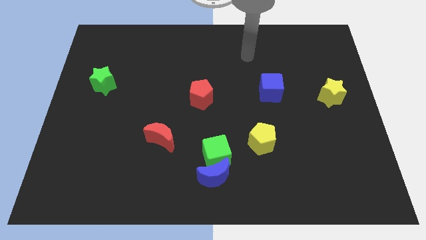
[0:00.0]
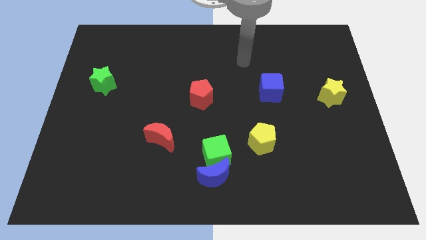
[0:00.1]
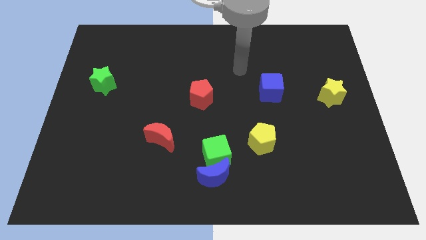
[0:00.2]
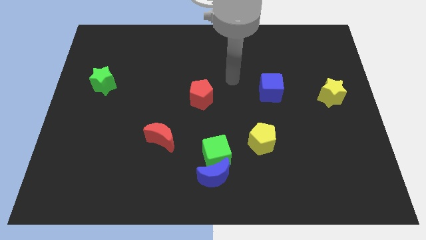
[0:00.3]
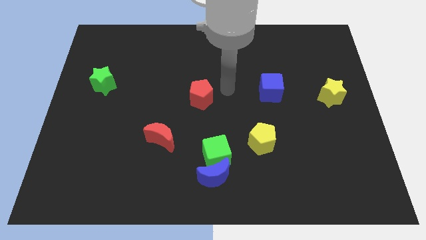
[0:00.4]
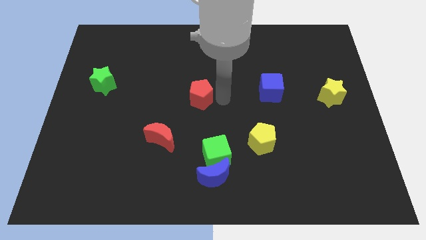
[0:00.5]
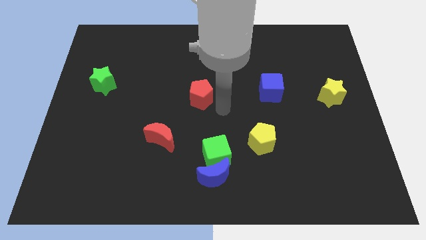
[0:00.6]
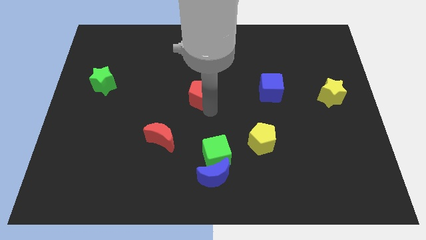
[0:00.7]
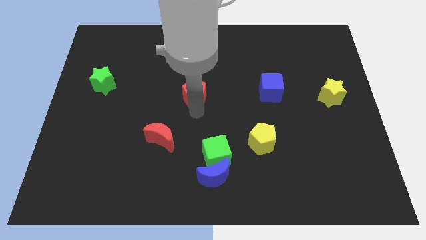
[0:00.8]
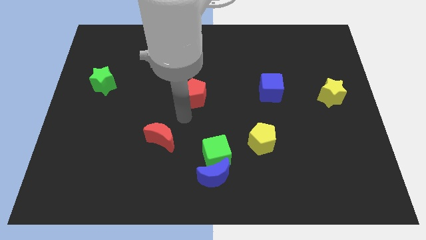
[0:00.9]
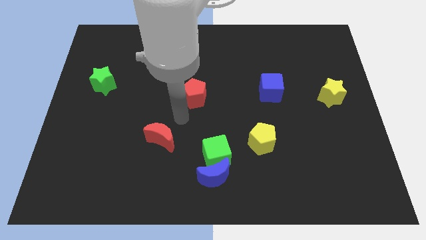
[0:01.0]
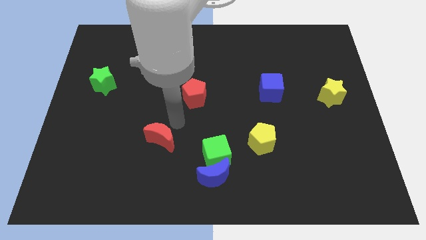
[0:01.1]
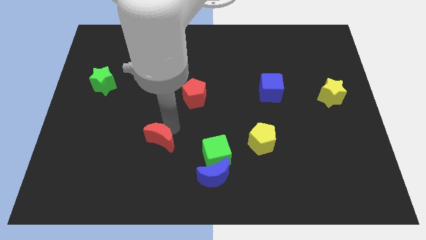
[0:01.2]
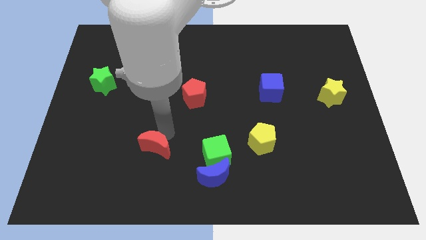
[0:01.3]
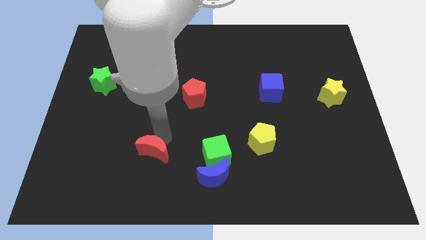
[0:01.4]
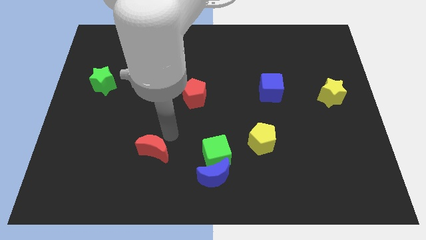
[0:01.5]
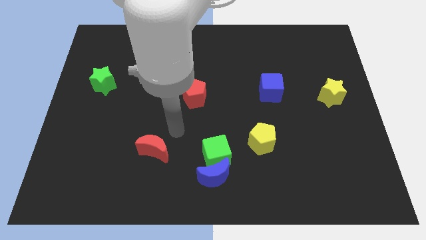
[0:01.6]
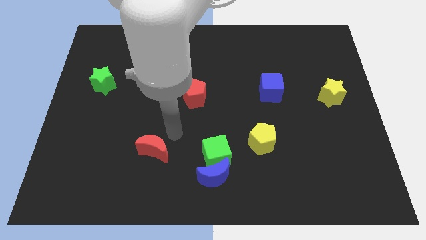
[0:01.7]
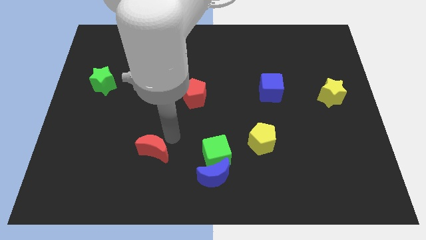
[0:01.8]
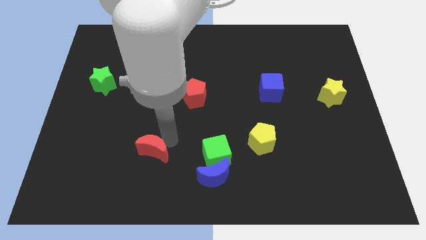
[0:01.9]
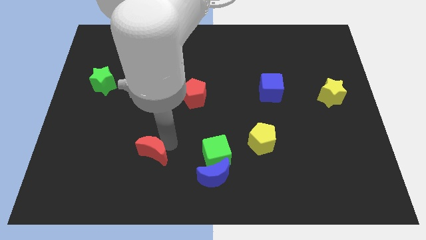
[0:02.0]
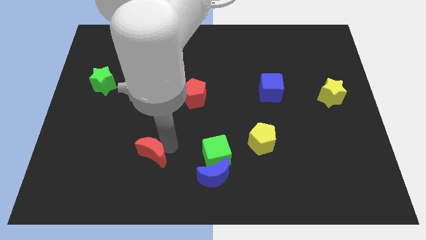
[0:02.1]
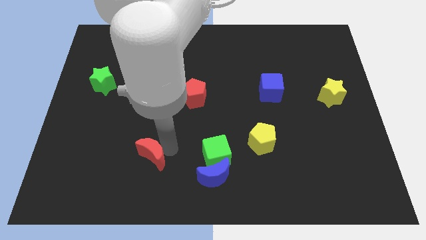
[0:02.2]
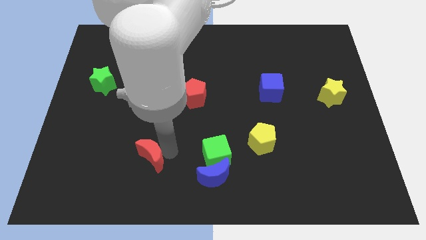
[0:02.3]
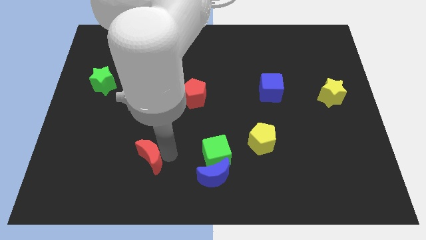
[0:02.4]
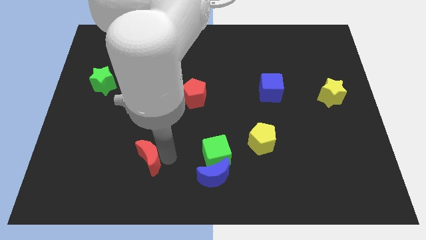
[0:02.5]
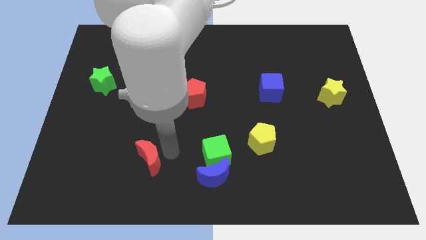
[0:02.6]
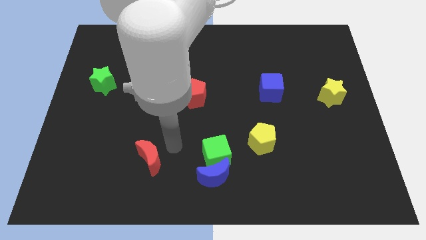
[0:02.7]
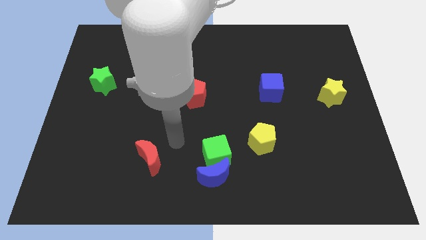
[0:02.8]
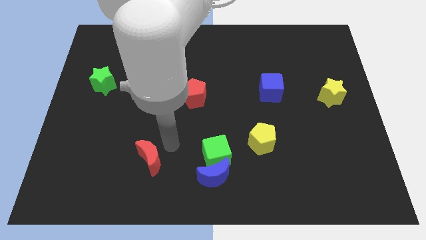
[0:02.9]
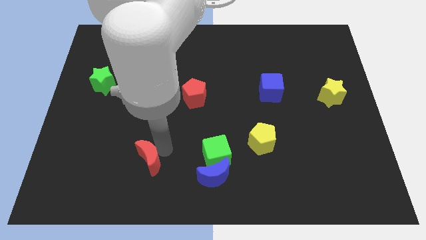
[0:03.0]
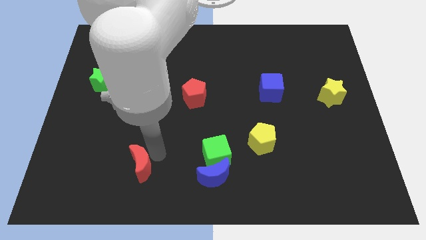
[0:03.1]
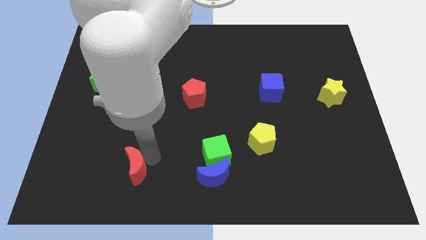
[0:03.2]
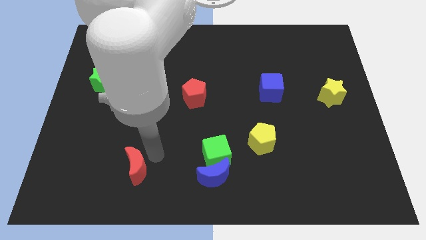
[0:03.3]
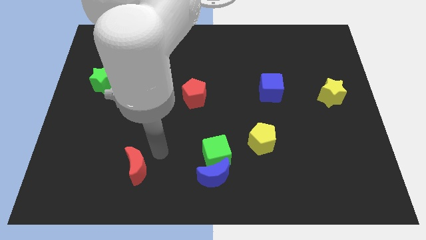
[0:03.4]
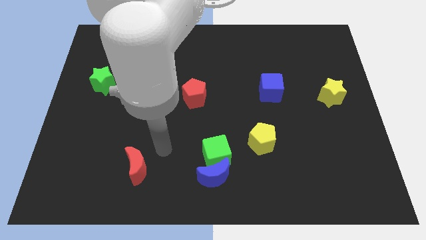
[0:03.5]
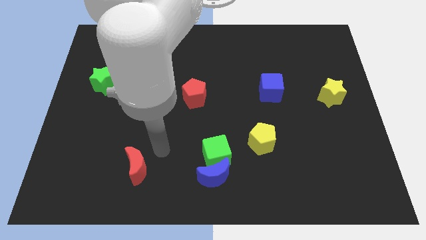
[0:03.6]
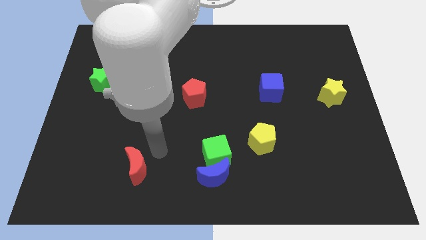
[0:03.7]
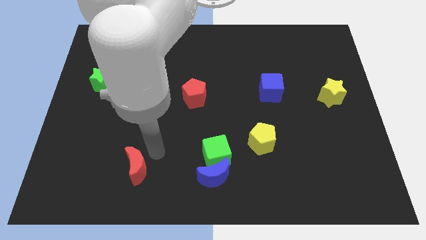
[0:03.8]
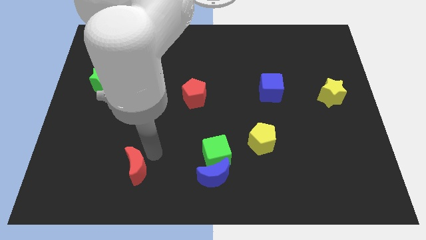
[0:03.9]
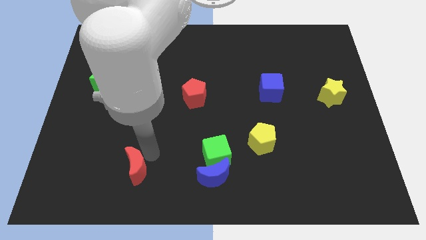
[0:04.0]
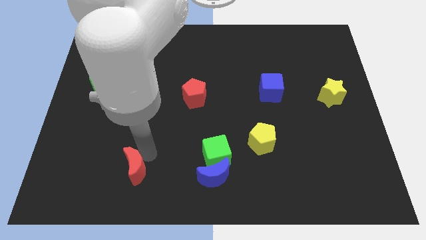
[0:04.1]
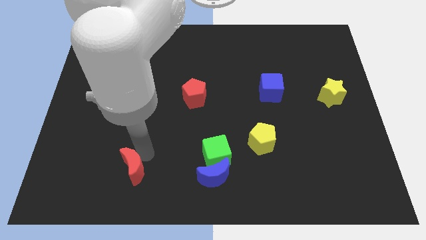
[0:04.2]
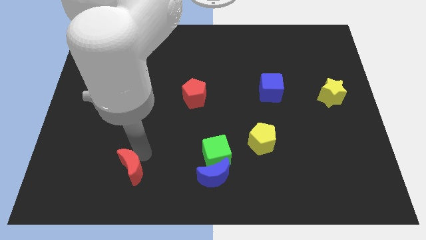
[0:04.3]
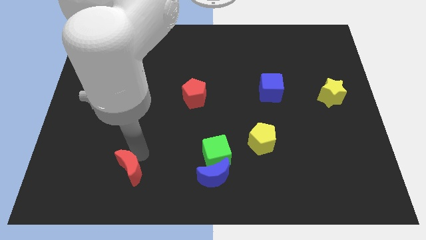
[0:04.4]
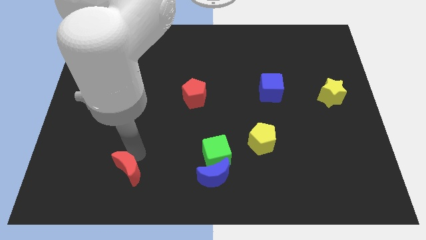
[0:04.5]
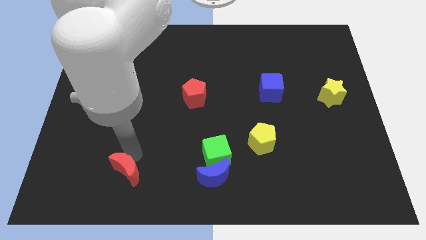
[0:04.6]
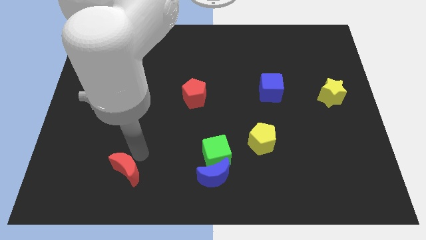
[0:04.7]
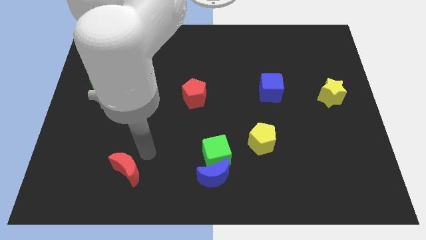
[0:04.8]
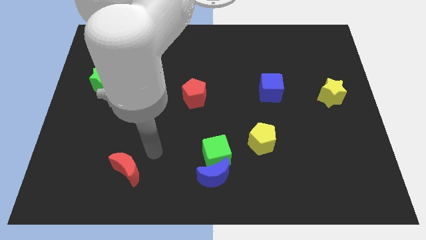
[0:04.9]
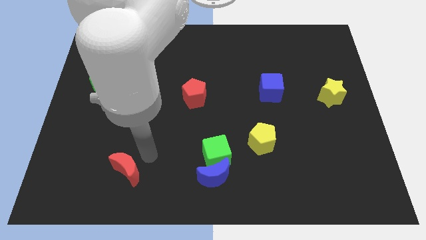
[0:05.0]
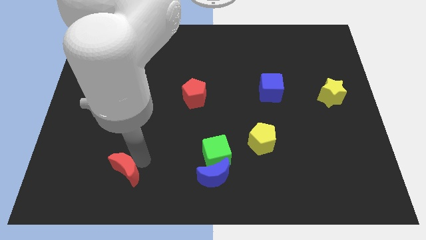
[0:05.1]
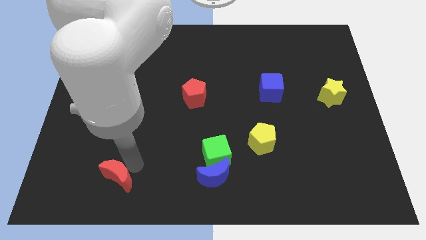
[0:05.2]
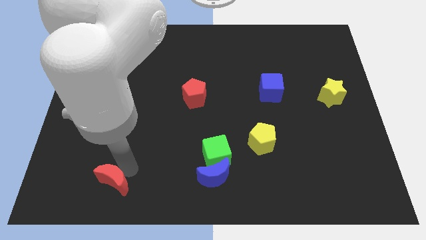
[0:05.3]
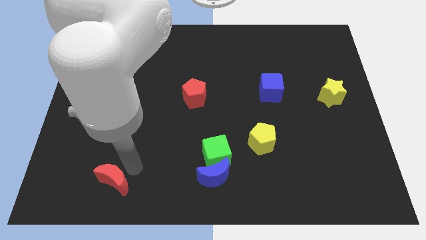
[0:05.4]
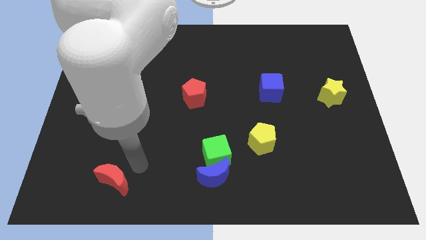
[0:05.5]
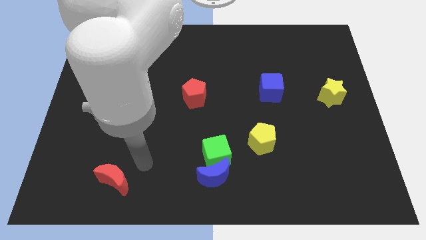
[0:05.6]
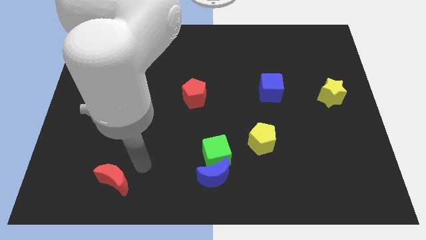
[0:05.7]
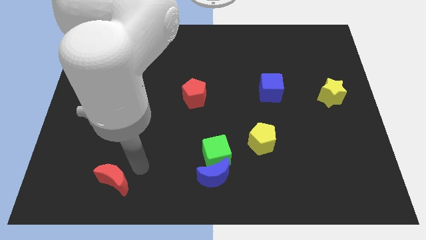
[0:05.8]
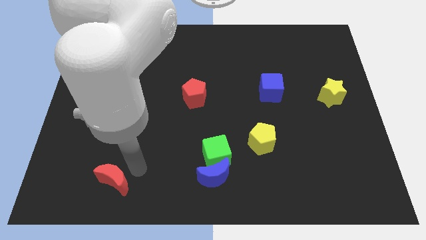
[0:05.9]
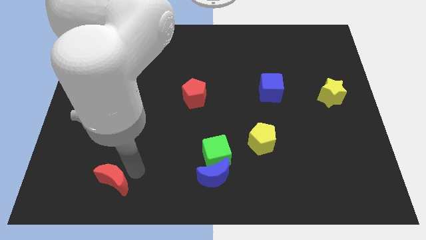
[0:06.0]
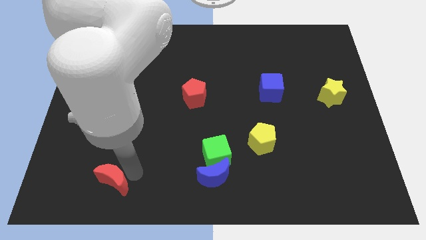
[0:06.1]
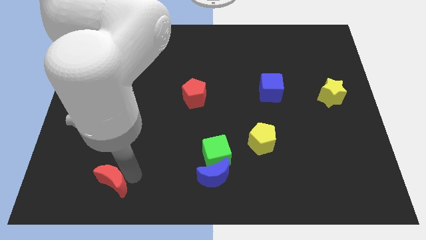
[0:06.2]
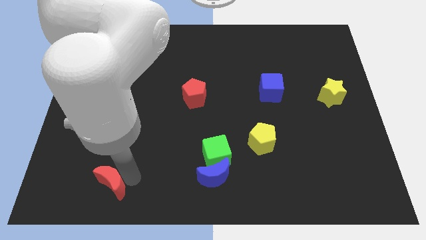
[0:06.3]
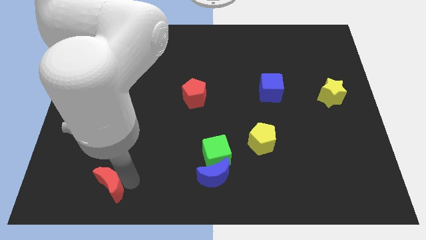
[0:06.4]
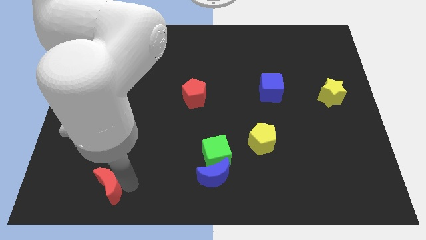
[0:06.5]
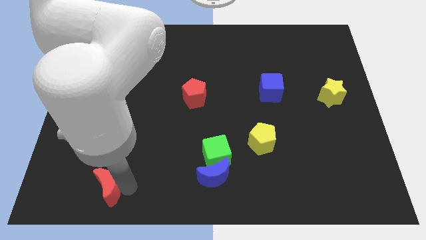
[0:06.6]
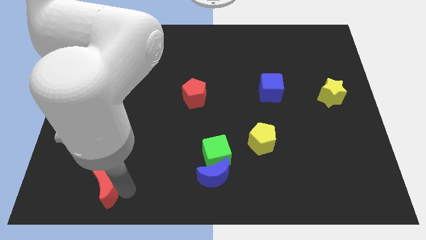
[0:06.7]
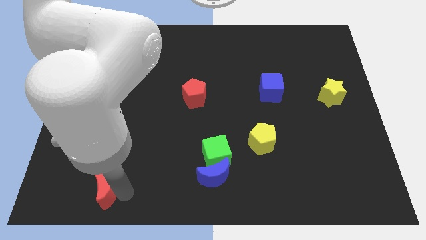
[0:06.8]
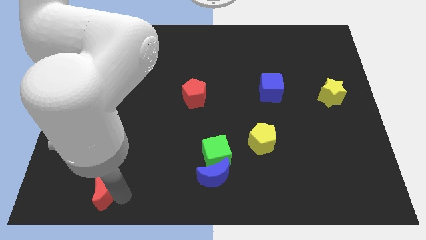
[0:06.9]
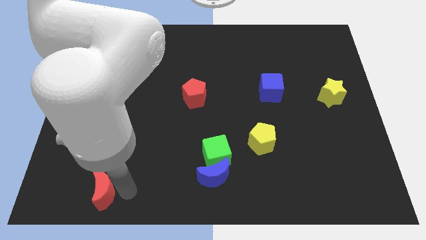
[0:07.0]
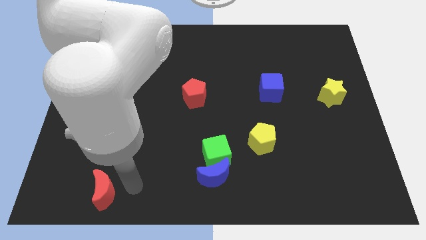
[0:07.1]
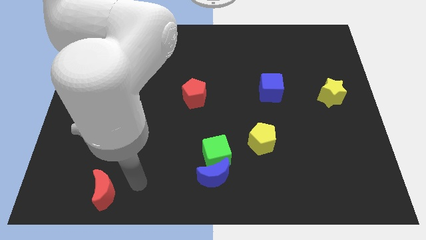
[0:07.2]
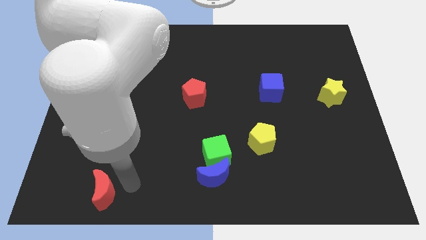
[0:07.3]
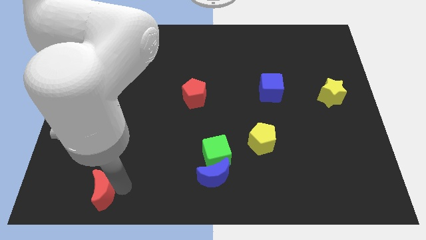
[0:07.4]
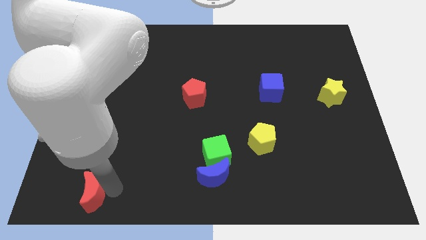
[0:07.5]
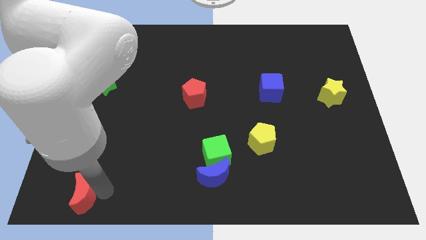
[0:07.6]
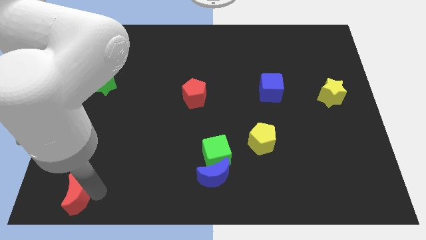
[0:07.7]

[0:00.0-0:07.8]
push the red moon to the bottom left corner
